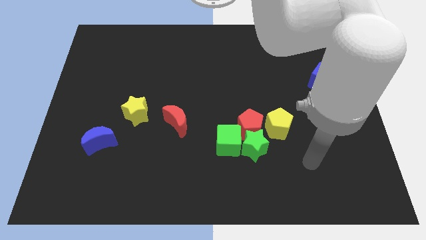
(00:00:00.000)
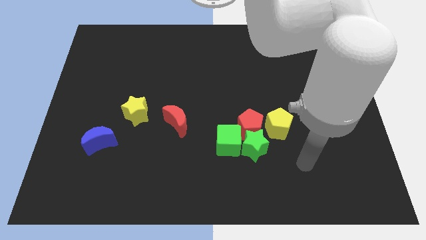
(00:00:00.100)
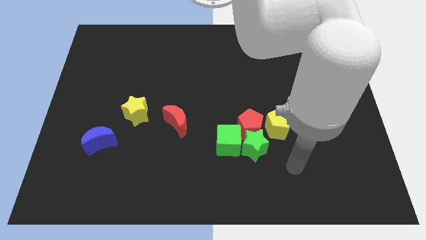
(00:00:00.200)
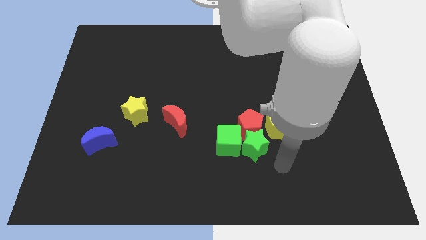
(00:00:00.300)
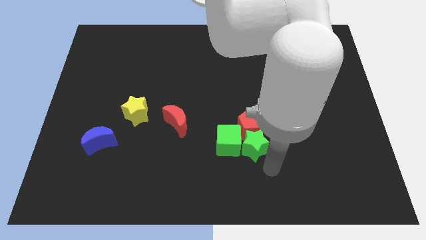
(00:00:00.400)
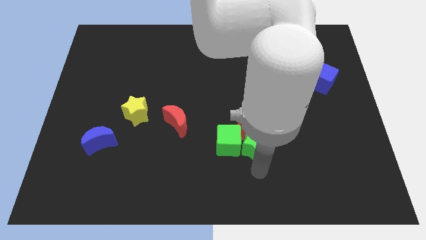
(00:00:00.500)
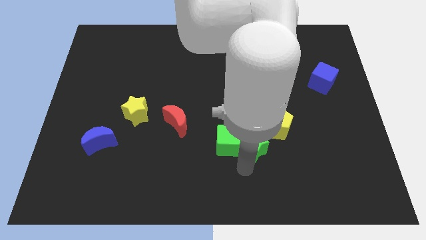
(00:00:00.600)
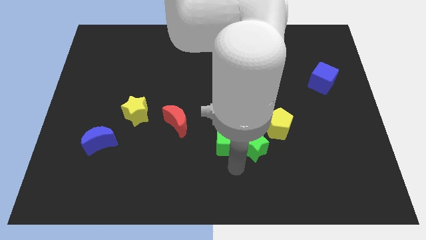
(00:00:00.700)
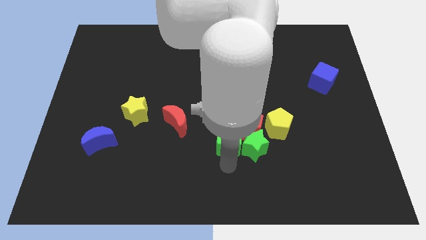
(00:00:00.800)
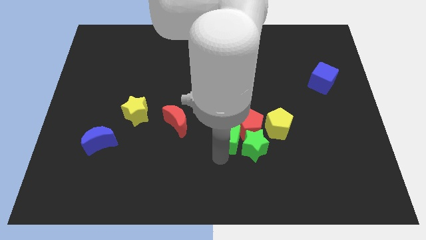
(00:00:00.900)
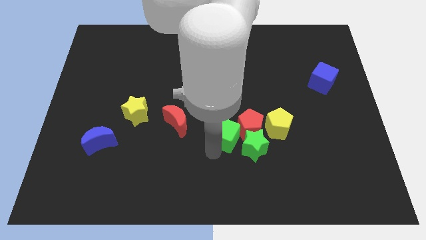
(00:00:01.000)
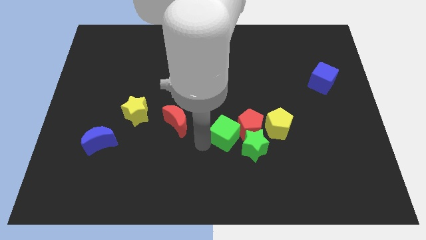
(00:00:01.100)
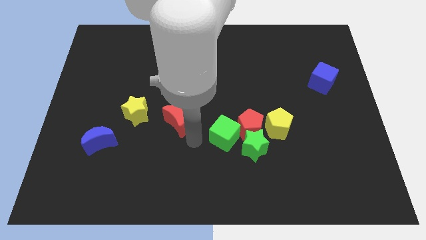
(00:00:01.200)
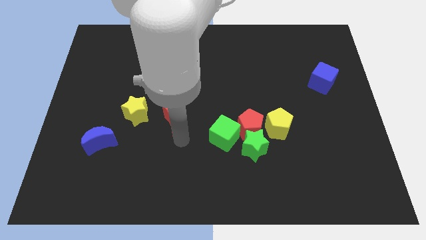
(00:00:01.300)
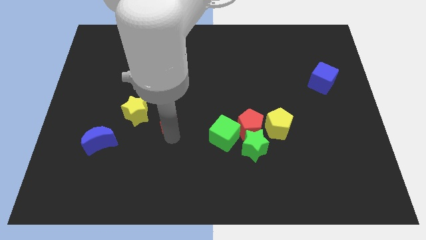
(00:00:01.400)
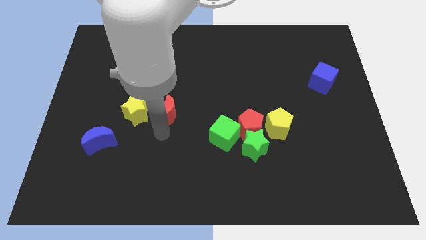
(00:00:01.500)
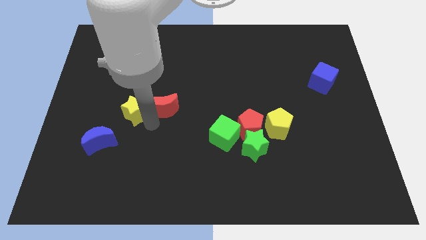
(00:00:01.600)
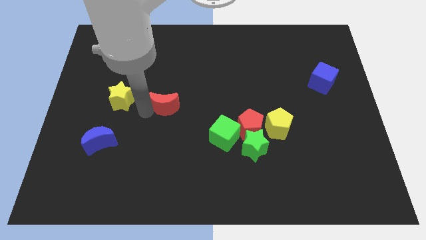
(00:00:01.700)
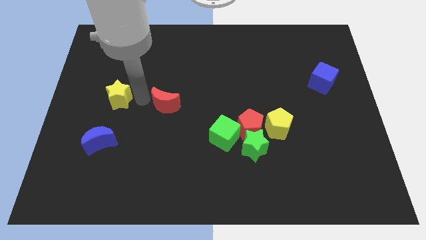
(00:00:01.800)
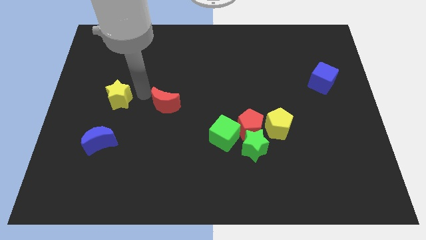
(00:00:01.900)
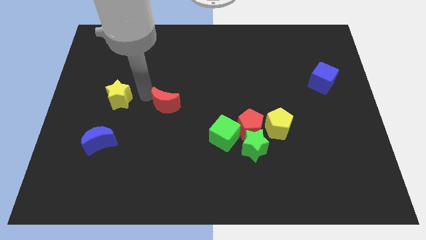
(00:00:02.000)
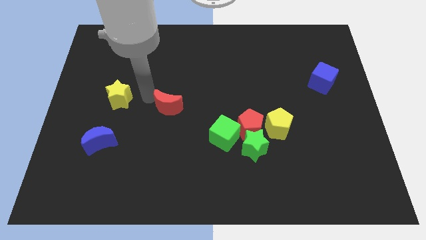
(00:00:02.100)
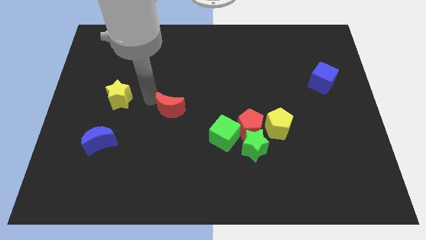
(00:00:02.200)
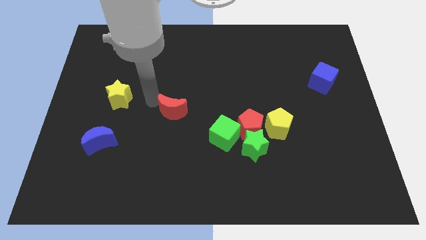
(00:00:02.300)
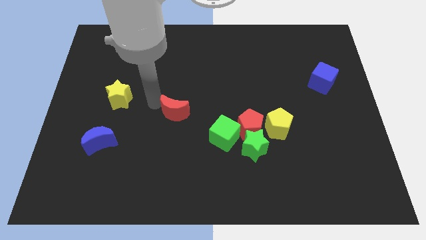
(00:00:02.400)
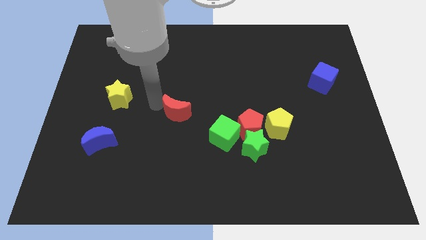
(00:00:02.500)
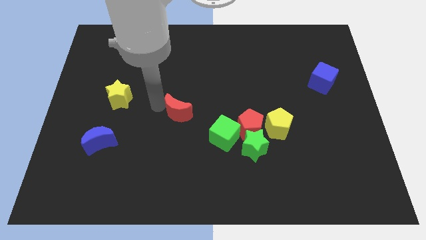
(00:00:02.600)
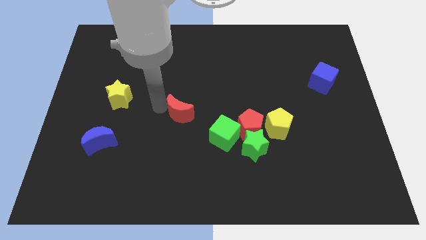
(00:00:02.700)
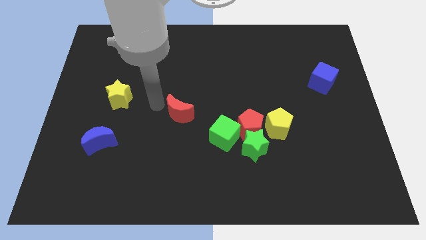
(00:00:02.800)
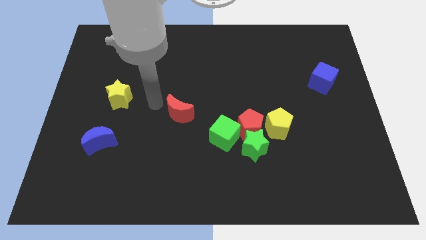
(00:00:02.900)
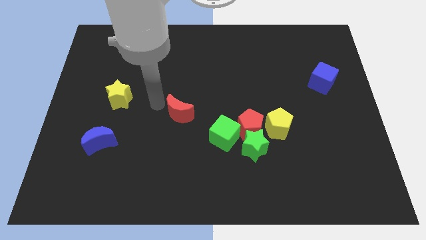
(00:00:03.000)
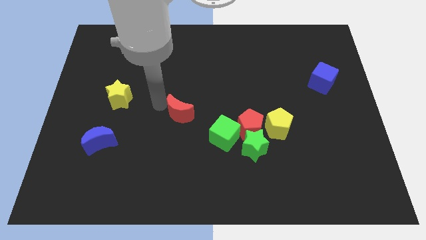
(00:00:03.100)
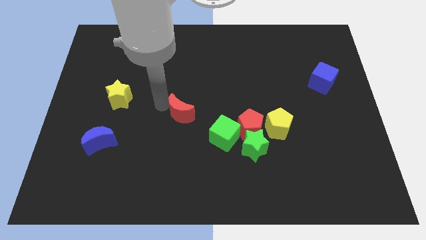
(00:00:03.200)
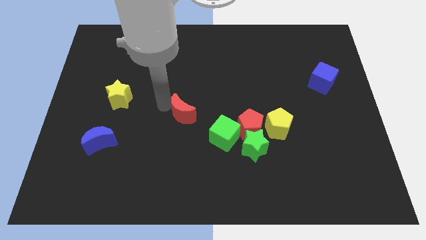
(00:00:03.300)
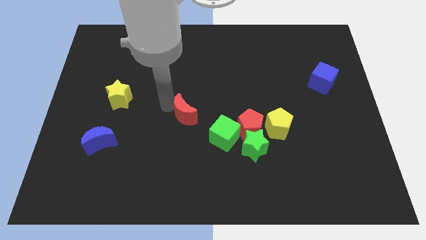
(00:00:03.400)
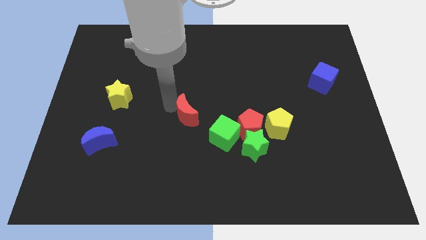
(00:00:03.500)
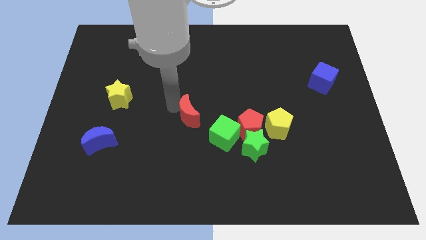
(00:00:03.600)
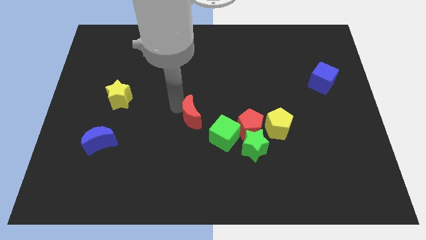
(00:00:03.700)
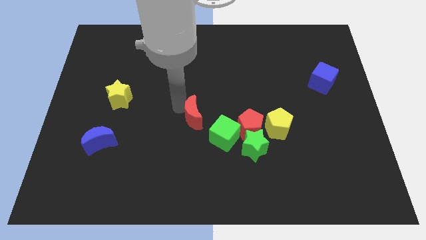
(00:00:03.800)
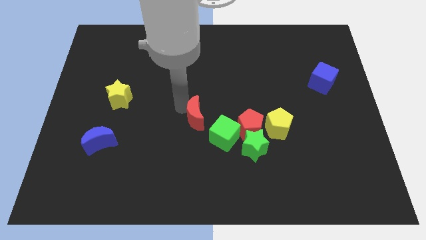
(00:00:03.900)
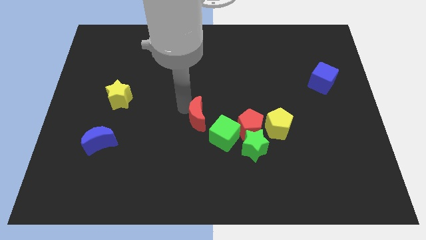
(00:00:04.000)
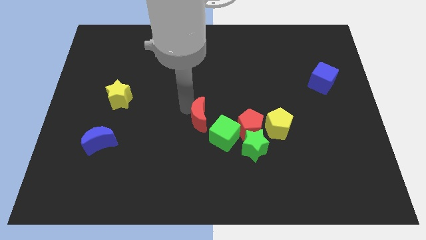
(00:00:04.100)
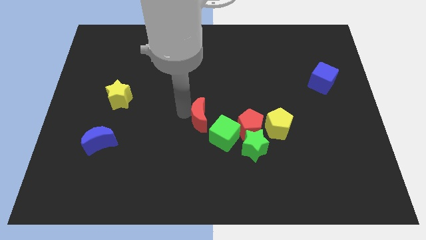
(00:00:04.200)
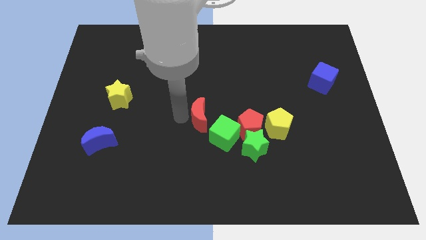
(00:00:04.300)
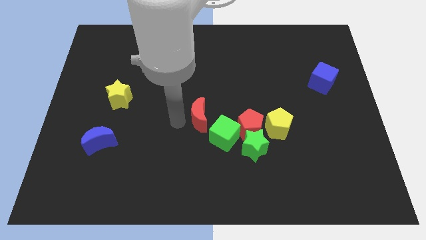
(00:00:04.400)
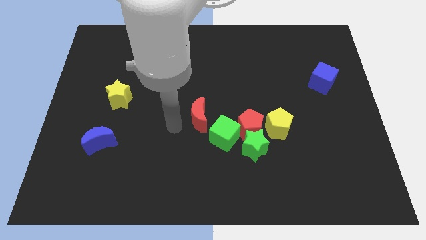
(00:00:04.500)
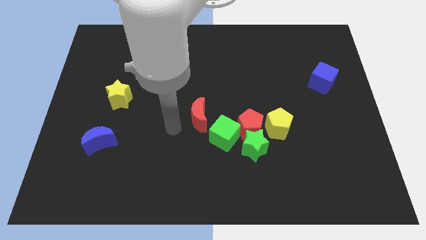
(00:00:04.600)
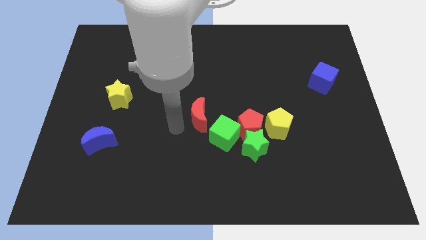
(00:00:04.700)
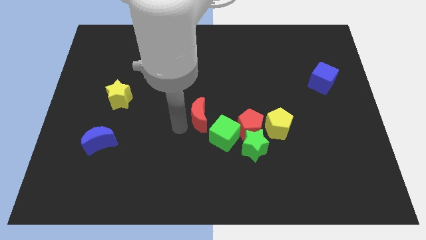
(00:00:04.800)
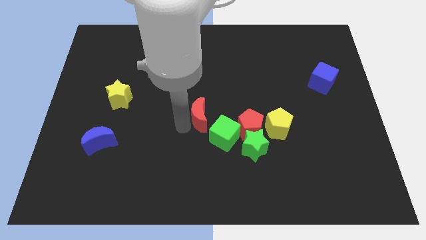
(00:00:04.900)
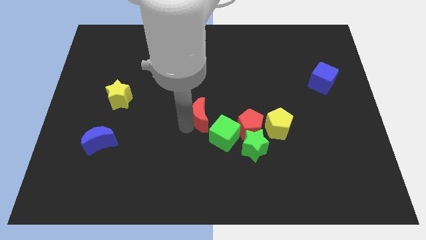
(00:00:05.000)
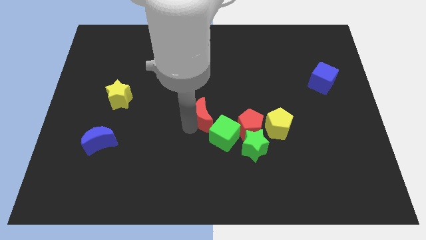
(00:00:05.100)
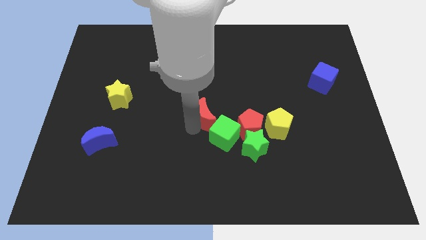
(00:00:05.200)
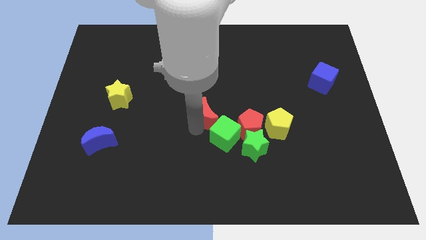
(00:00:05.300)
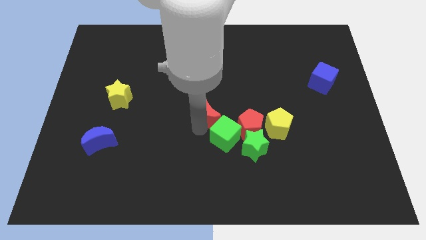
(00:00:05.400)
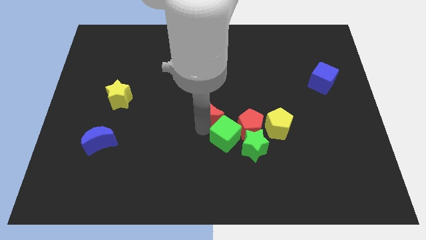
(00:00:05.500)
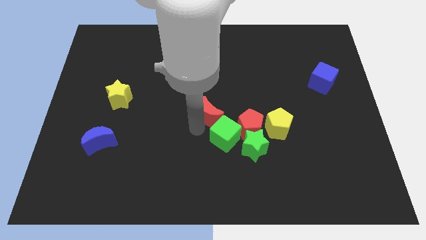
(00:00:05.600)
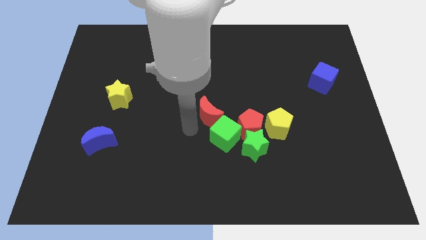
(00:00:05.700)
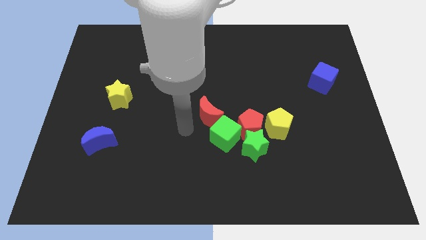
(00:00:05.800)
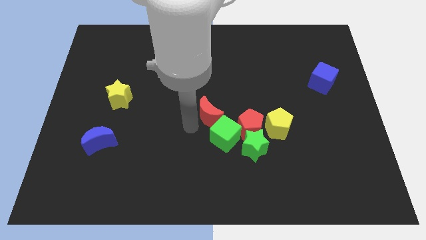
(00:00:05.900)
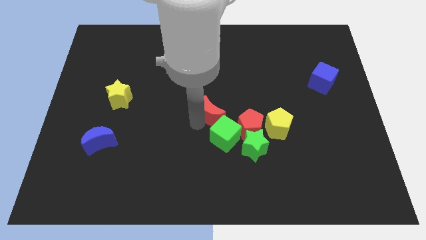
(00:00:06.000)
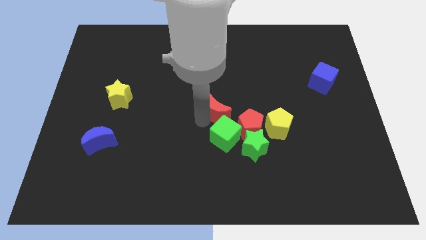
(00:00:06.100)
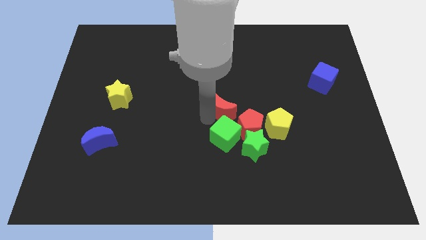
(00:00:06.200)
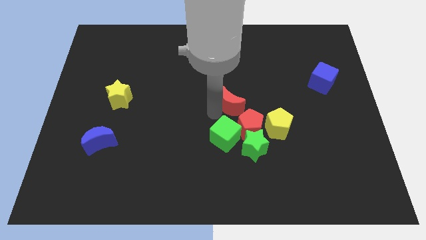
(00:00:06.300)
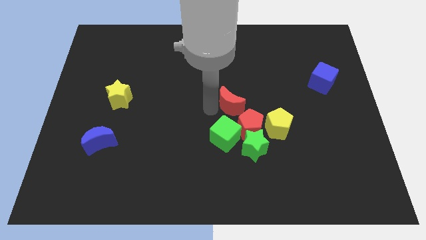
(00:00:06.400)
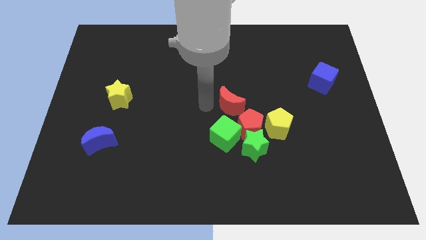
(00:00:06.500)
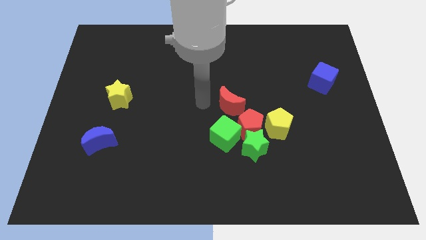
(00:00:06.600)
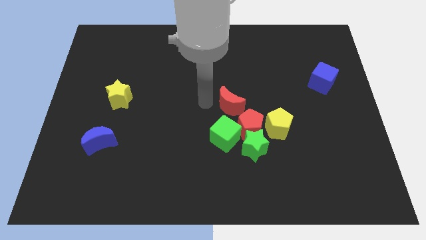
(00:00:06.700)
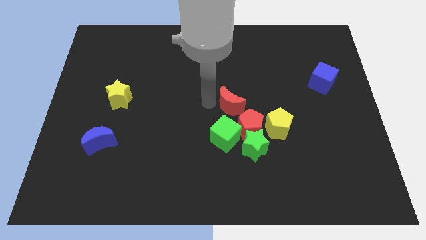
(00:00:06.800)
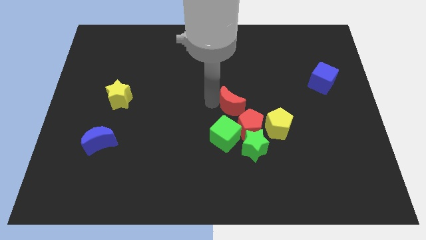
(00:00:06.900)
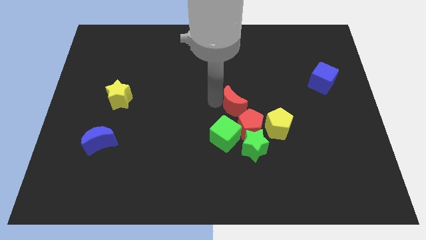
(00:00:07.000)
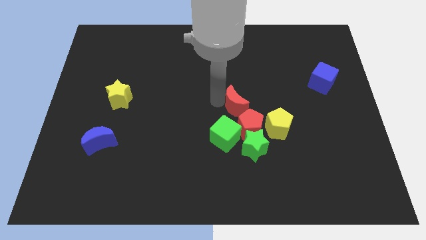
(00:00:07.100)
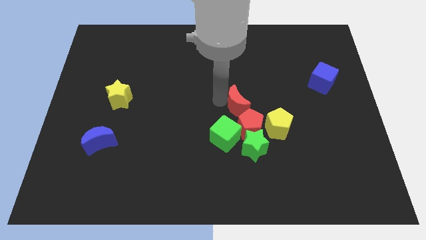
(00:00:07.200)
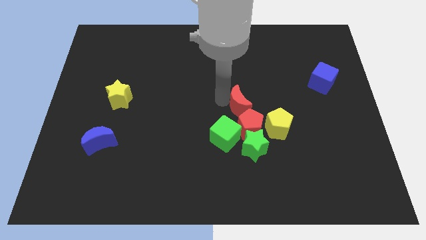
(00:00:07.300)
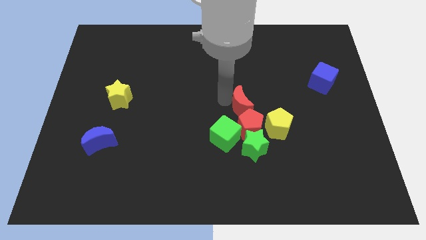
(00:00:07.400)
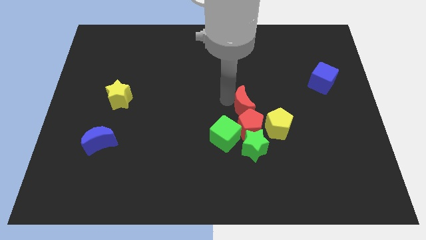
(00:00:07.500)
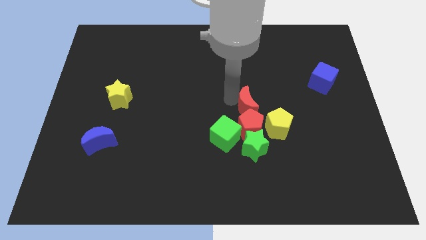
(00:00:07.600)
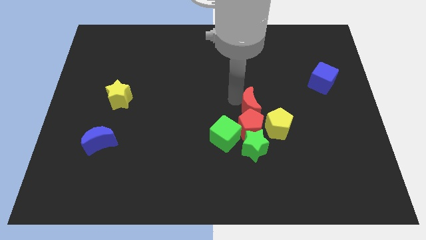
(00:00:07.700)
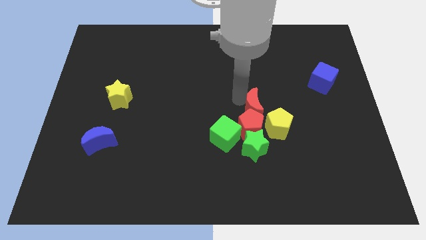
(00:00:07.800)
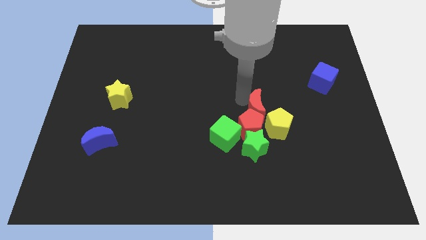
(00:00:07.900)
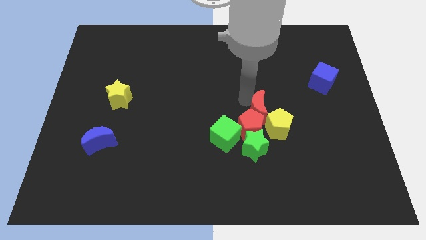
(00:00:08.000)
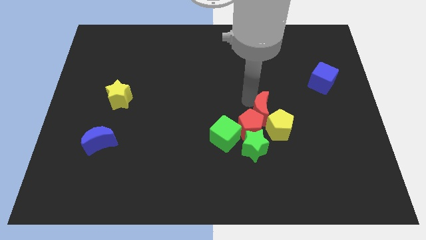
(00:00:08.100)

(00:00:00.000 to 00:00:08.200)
push the red moon towards the yellow pentagon
